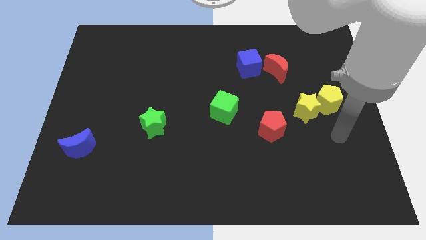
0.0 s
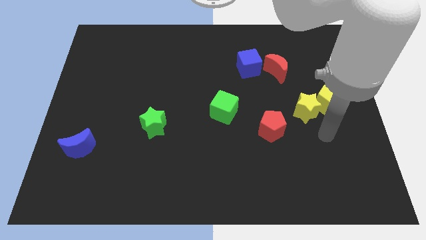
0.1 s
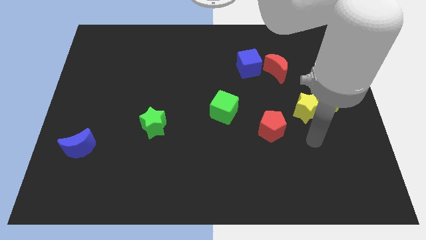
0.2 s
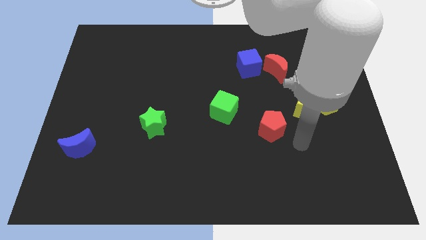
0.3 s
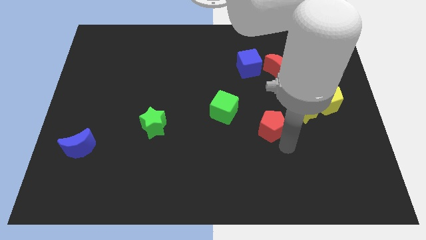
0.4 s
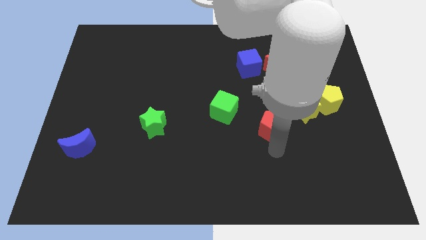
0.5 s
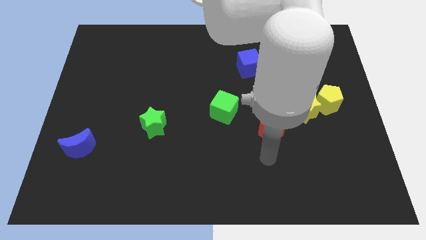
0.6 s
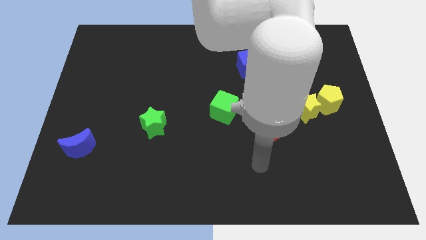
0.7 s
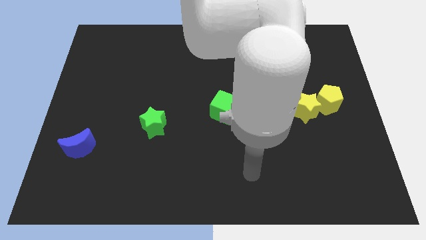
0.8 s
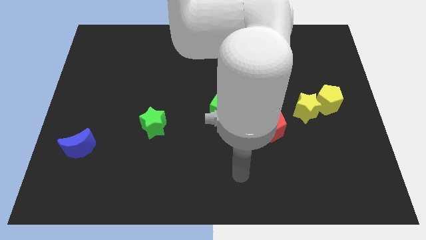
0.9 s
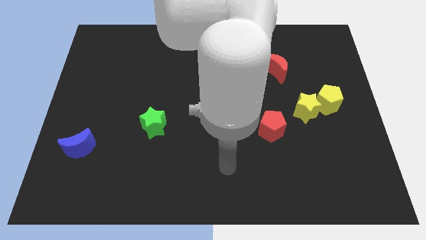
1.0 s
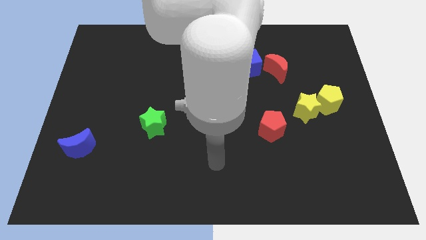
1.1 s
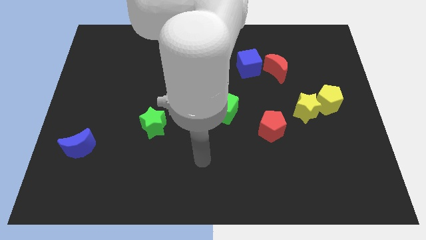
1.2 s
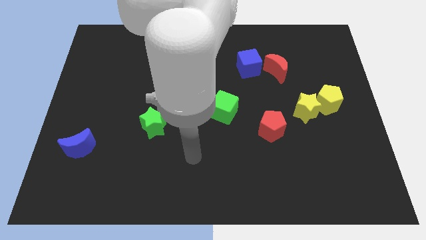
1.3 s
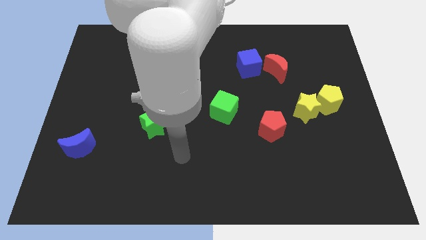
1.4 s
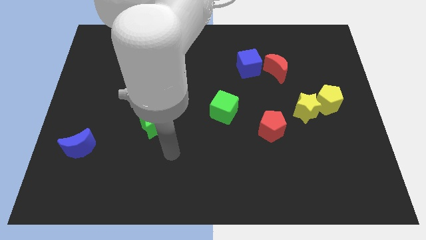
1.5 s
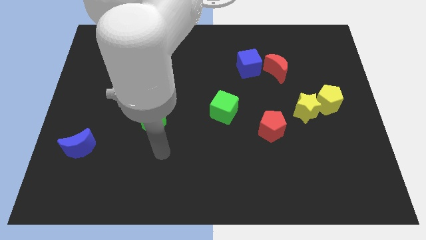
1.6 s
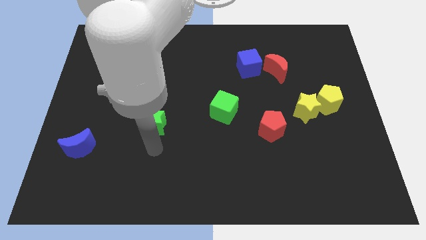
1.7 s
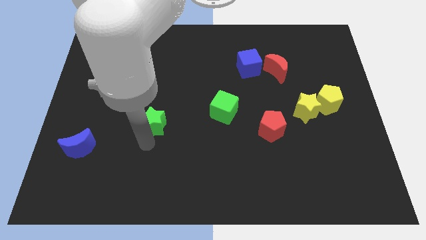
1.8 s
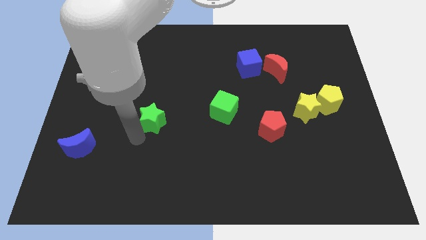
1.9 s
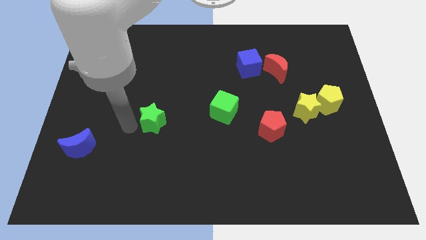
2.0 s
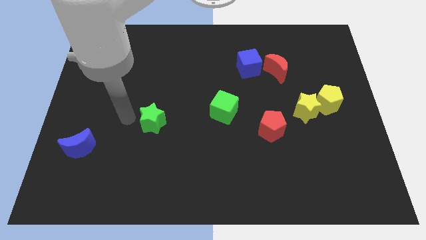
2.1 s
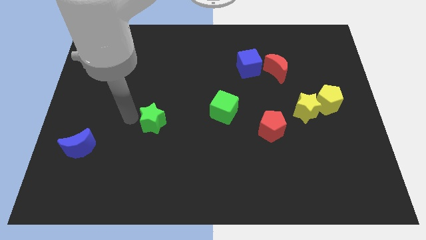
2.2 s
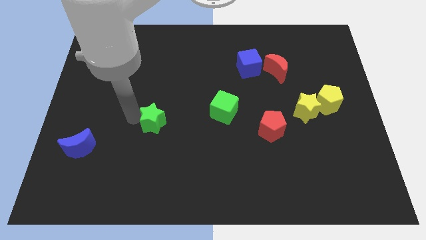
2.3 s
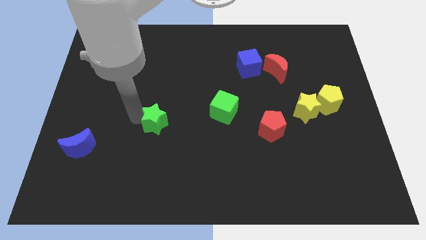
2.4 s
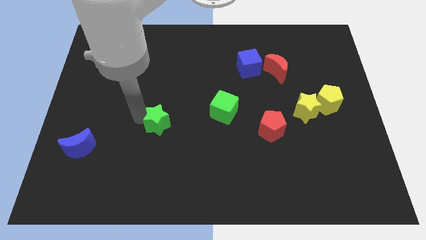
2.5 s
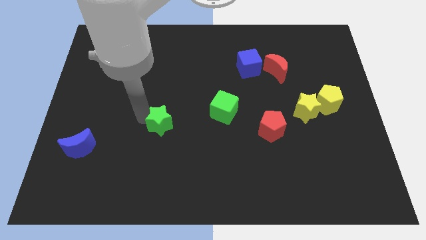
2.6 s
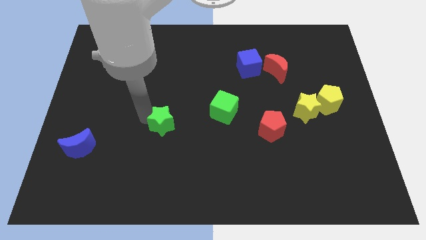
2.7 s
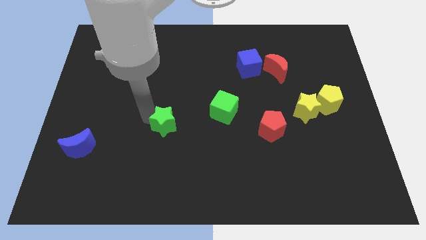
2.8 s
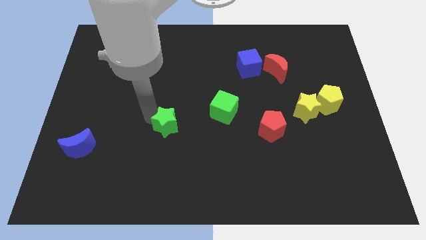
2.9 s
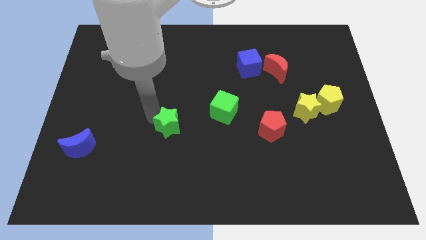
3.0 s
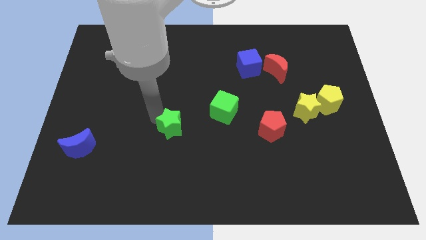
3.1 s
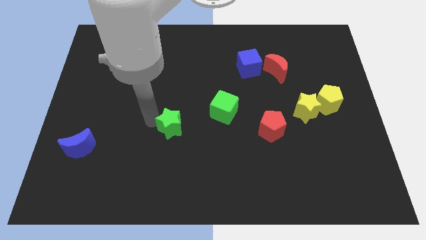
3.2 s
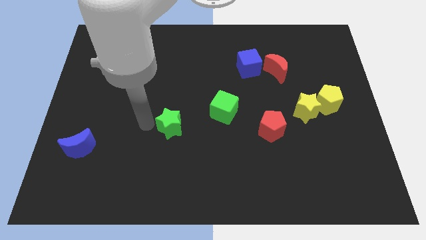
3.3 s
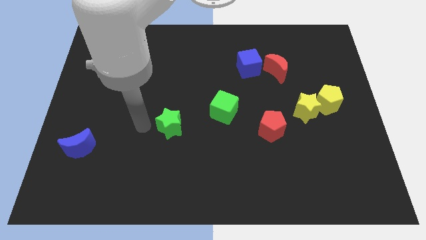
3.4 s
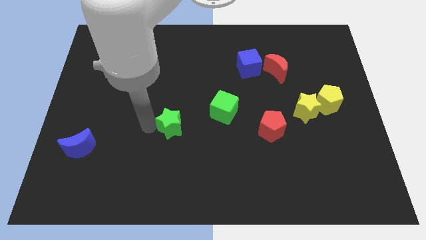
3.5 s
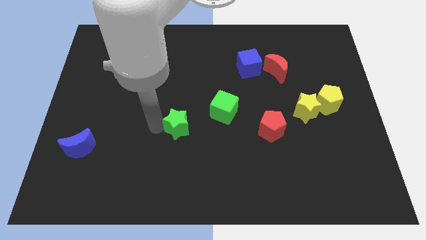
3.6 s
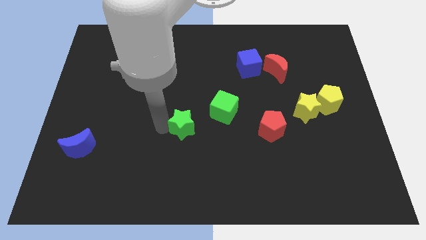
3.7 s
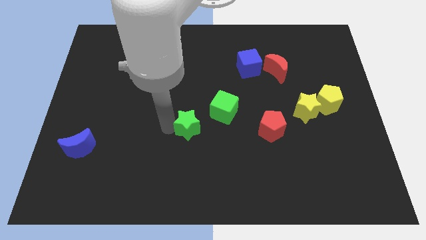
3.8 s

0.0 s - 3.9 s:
push the green star a little to the right

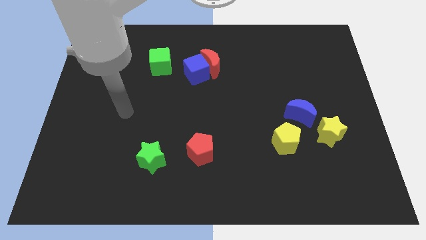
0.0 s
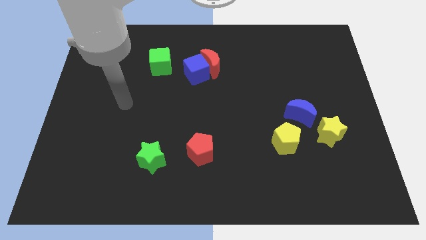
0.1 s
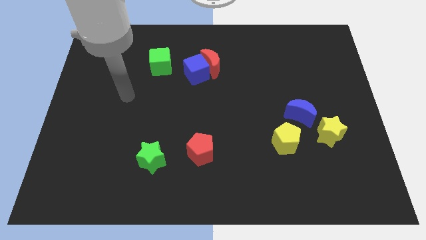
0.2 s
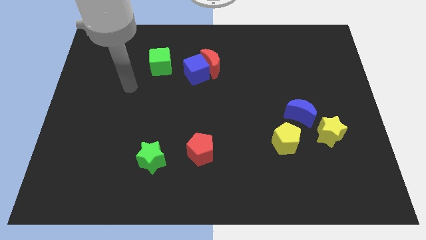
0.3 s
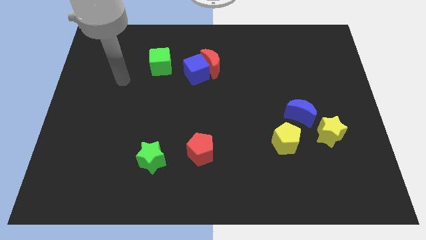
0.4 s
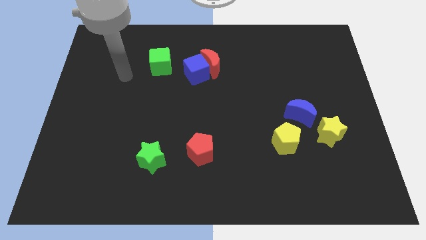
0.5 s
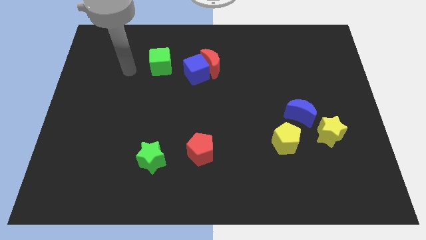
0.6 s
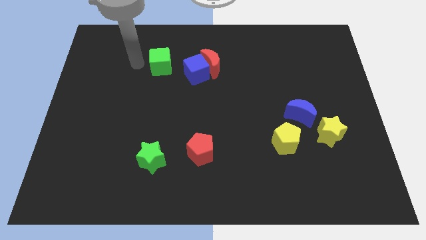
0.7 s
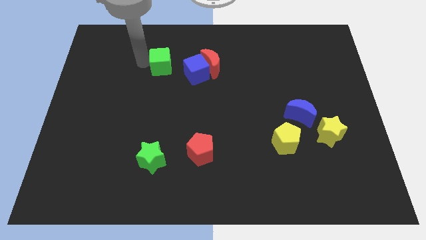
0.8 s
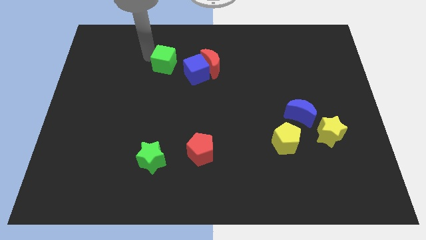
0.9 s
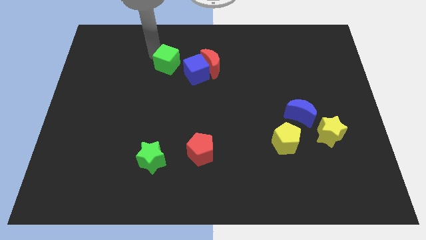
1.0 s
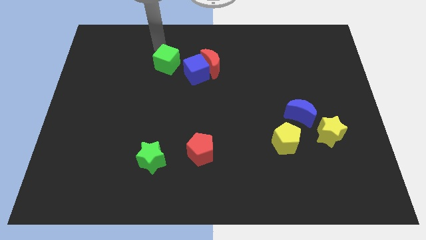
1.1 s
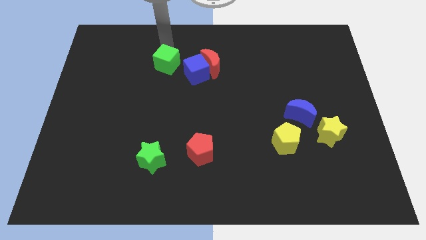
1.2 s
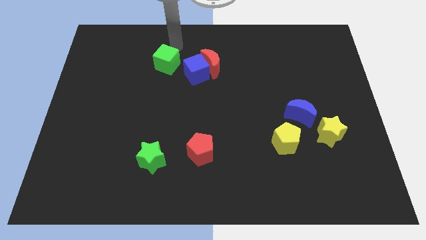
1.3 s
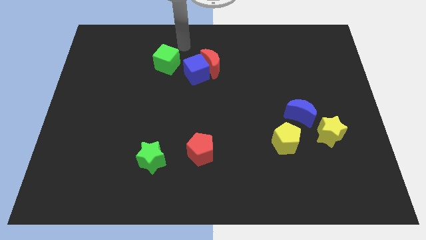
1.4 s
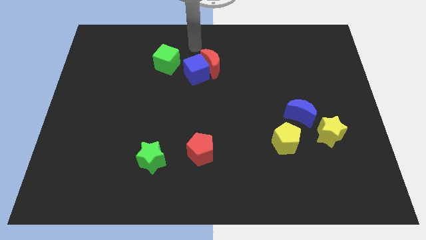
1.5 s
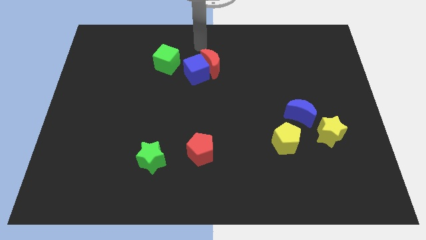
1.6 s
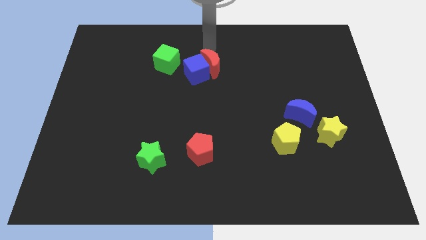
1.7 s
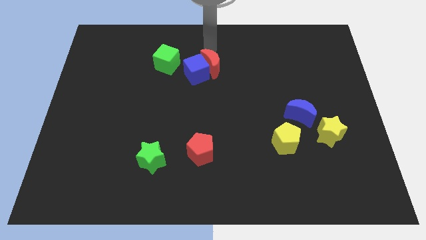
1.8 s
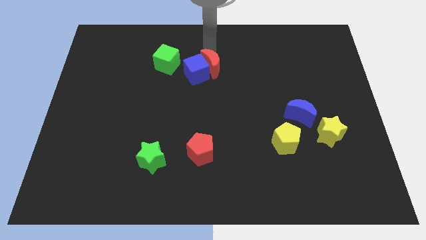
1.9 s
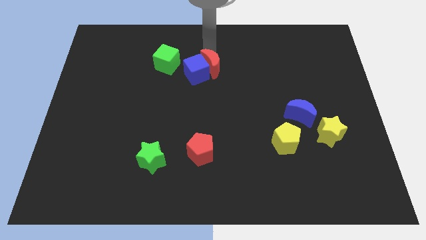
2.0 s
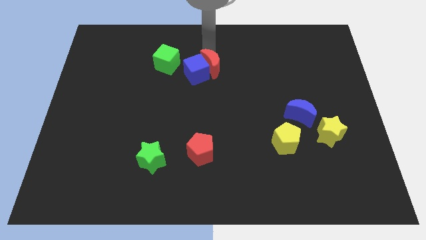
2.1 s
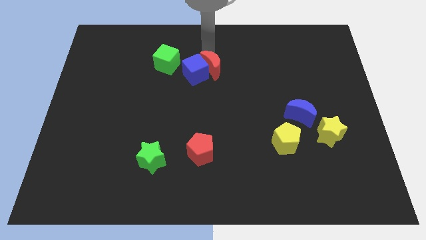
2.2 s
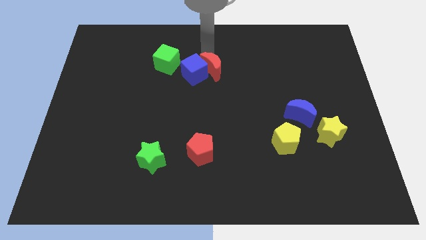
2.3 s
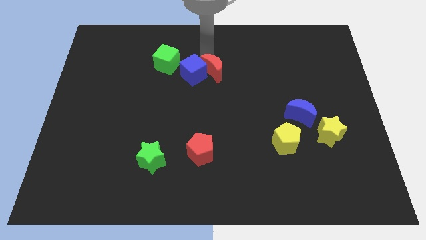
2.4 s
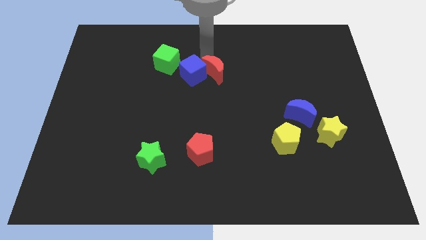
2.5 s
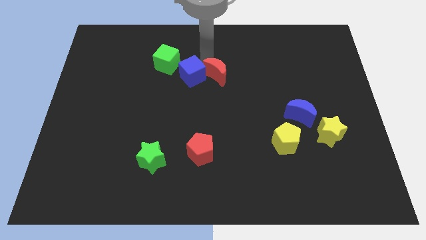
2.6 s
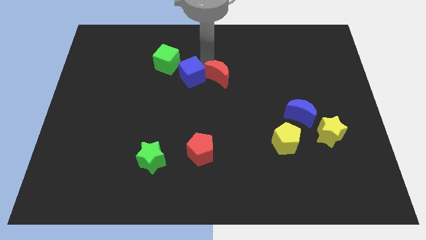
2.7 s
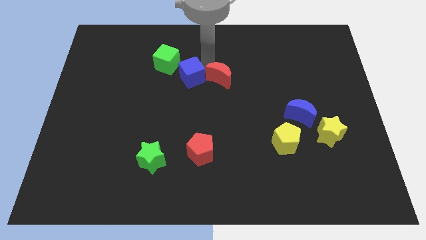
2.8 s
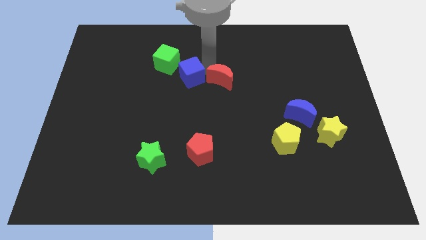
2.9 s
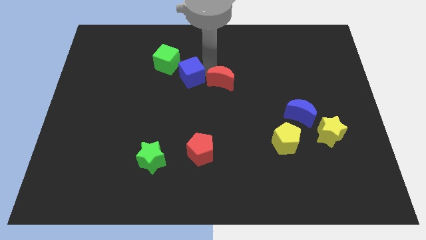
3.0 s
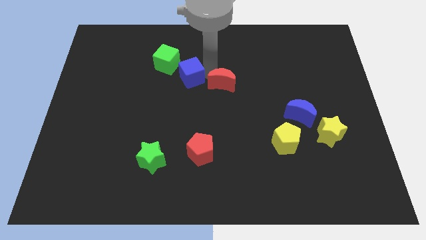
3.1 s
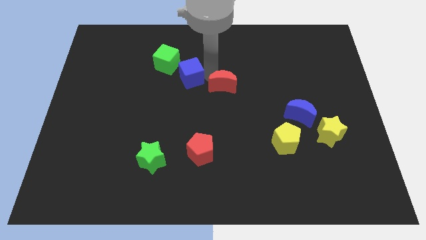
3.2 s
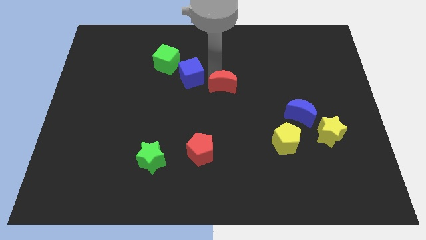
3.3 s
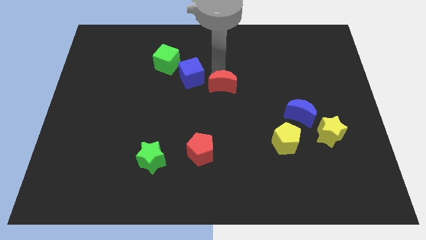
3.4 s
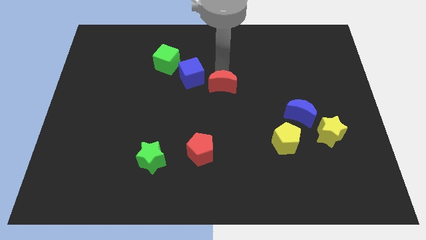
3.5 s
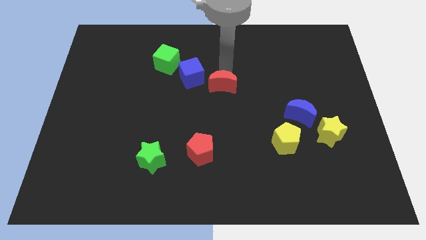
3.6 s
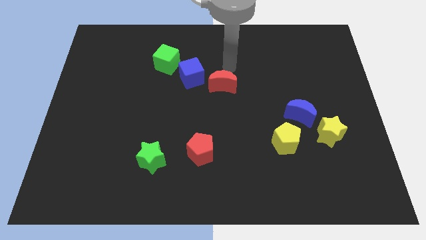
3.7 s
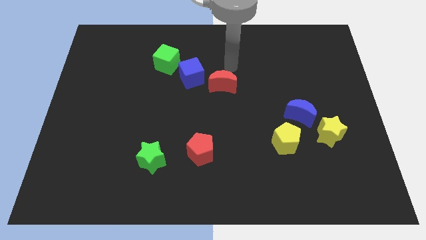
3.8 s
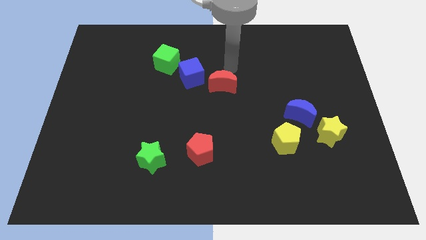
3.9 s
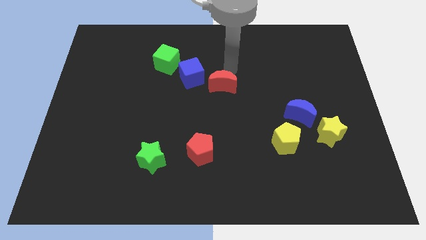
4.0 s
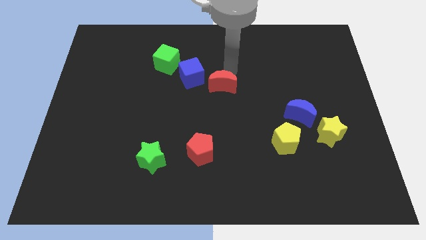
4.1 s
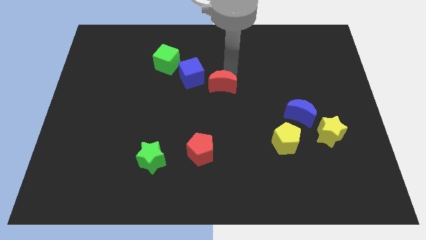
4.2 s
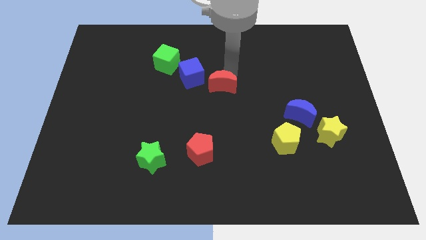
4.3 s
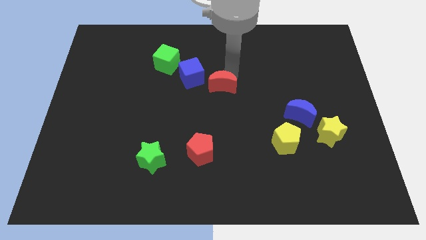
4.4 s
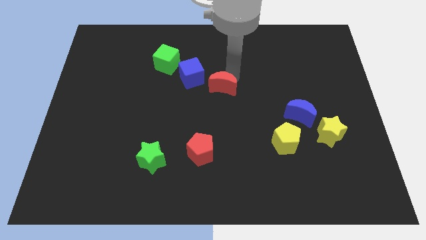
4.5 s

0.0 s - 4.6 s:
slide the red moon downwards a bit
